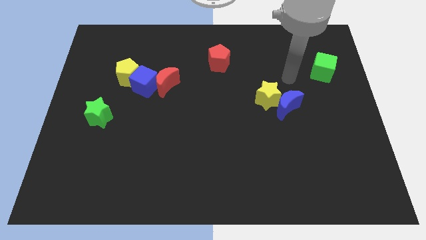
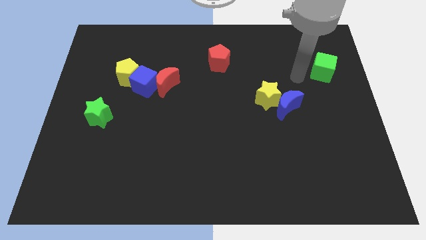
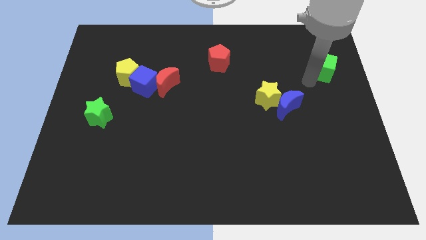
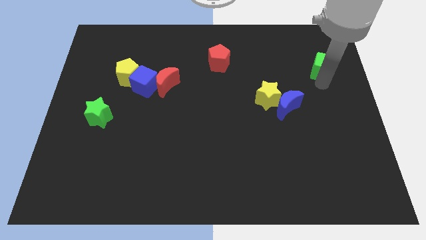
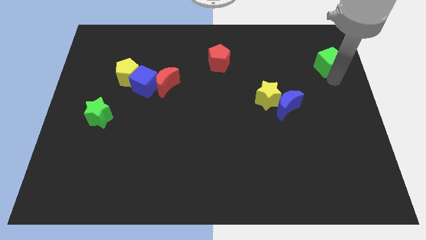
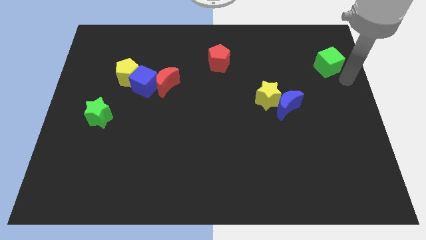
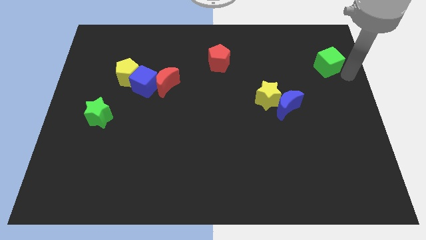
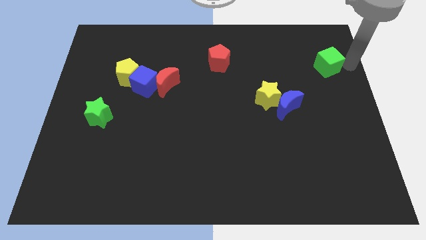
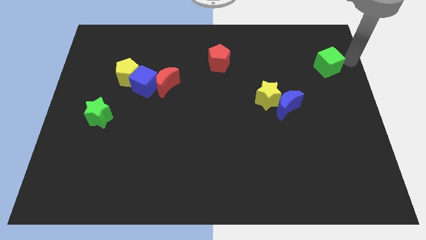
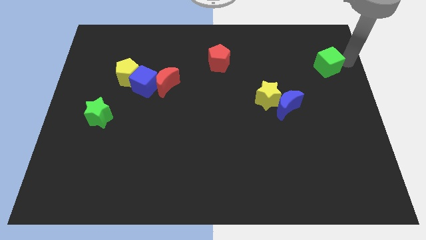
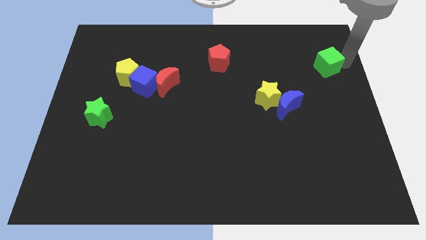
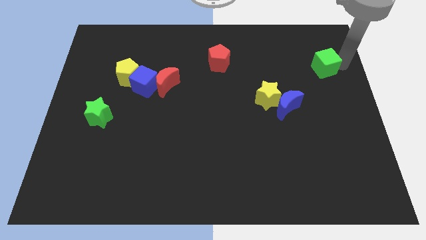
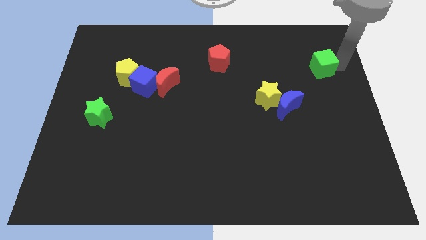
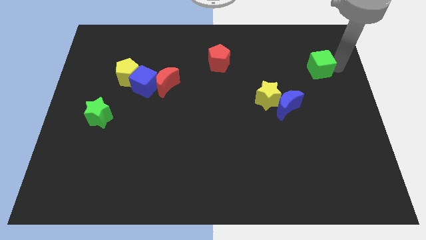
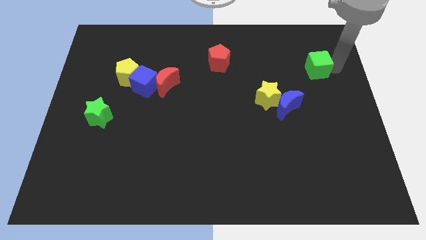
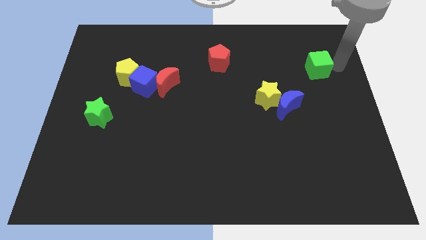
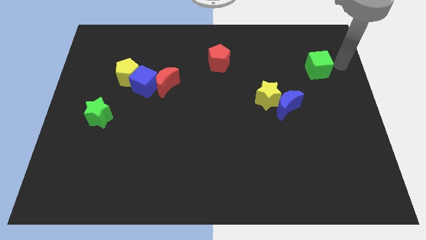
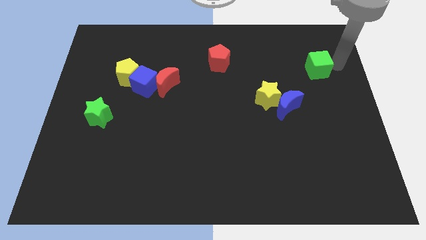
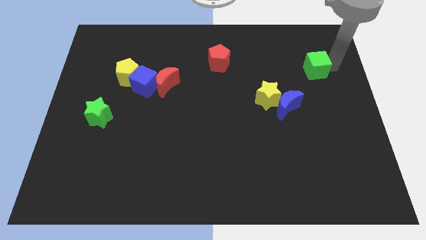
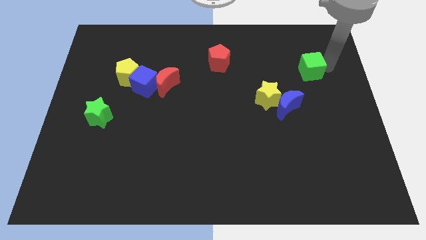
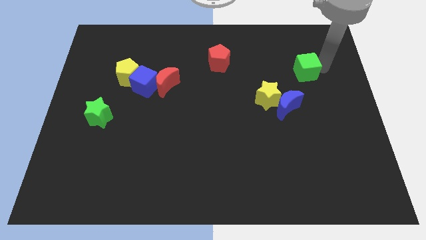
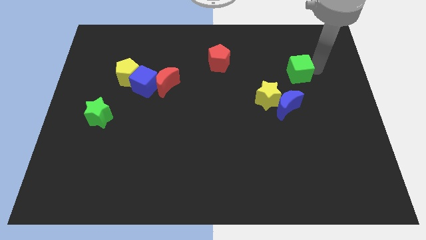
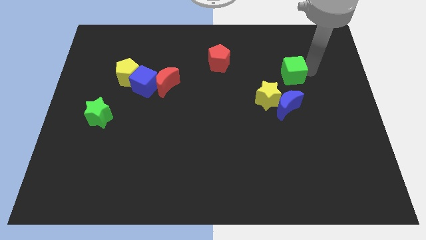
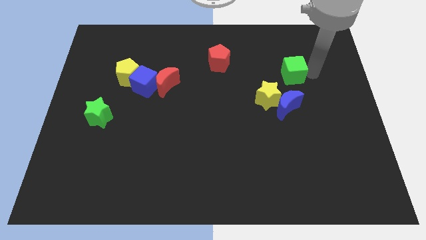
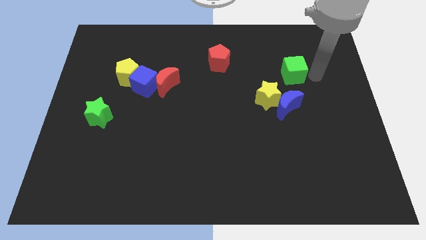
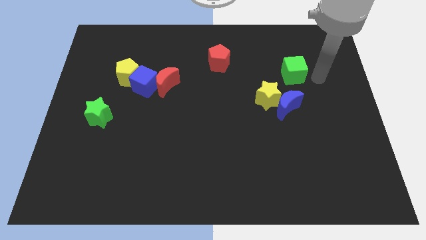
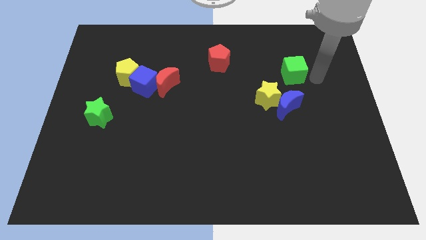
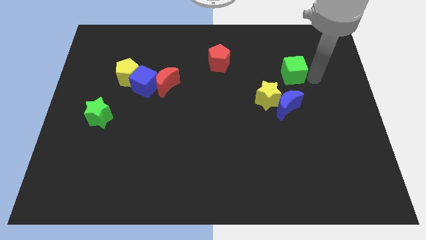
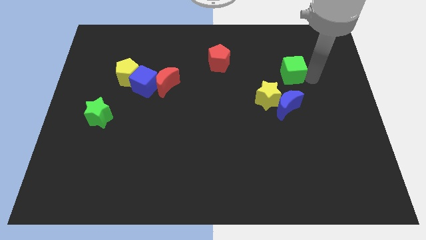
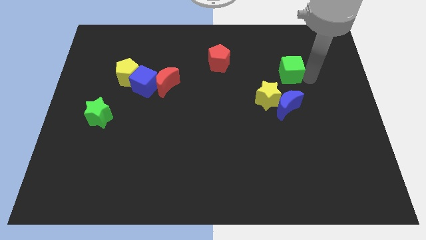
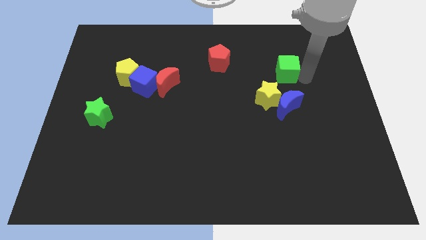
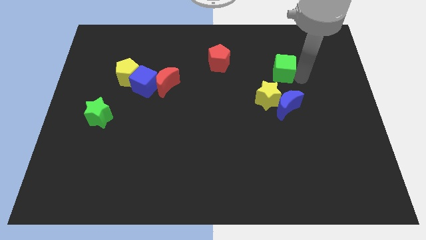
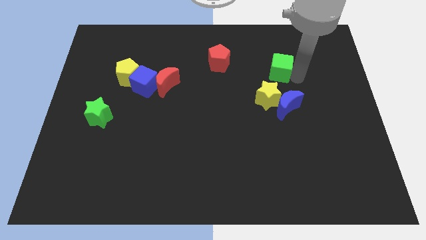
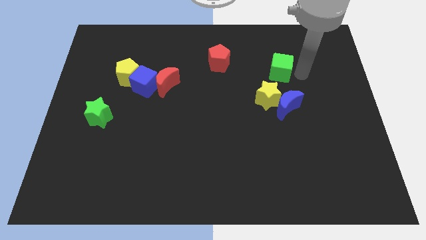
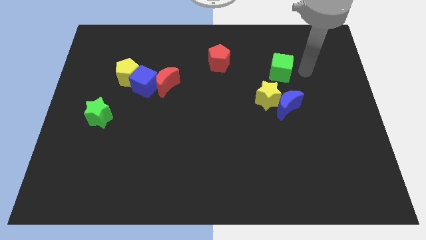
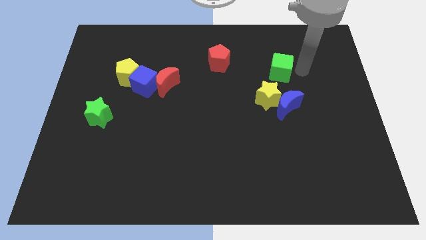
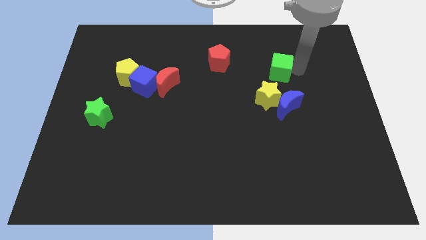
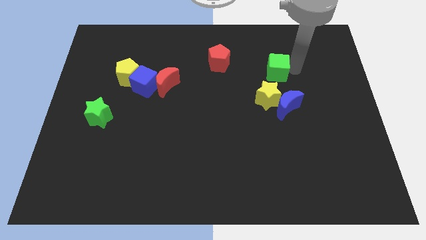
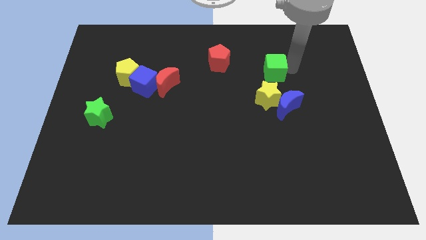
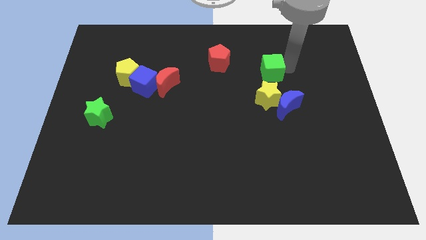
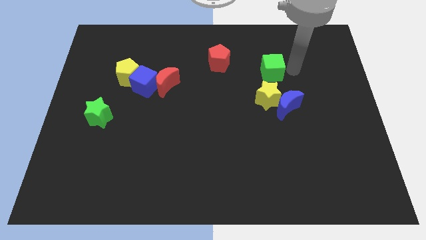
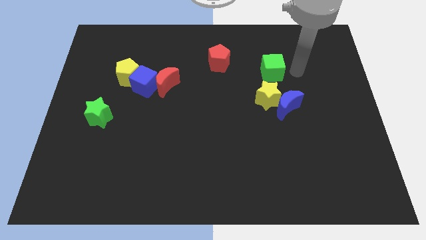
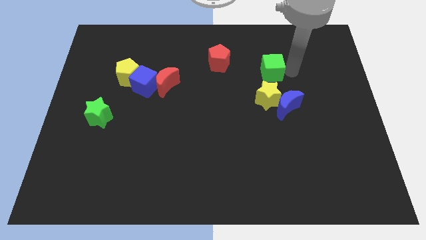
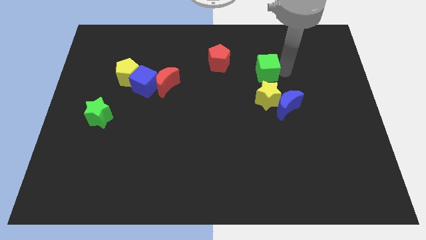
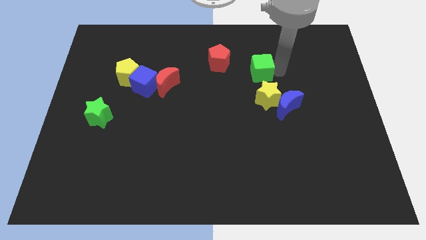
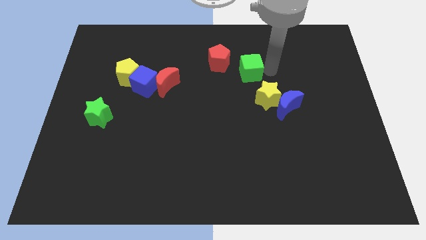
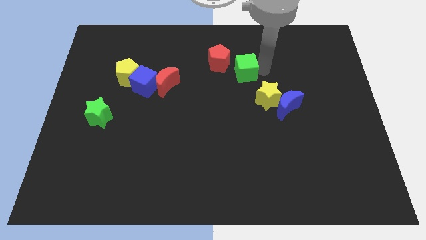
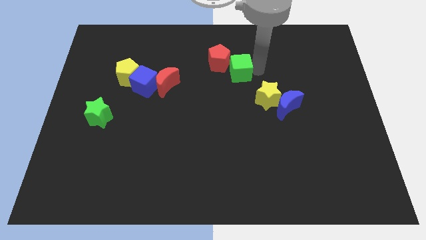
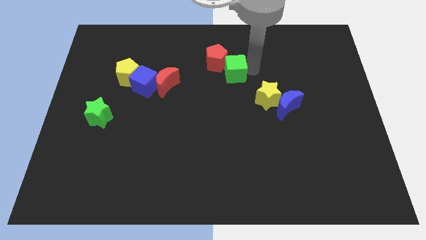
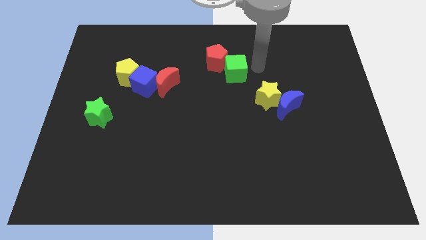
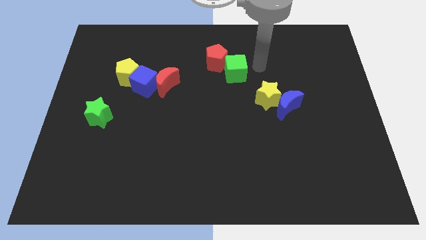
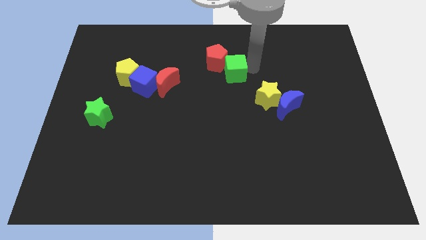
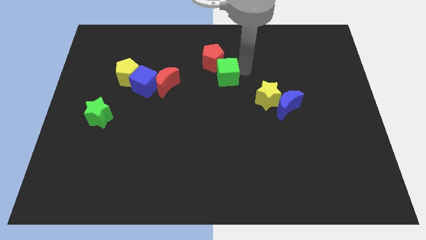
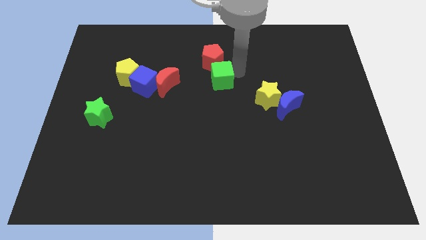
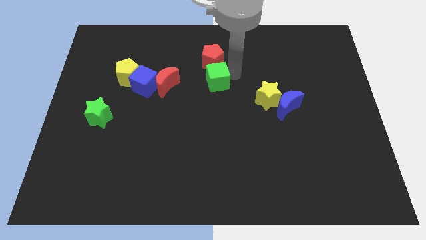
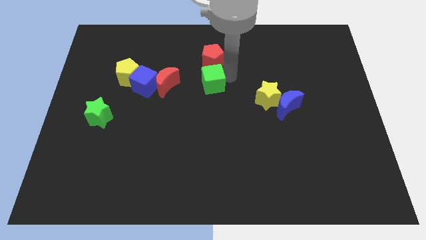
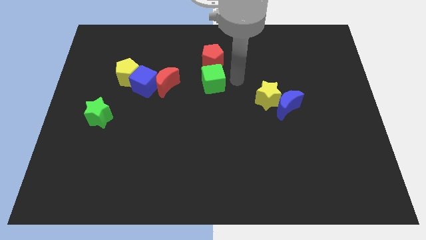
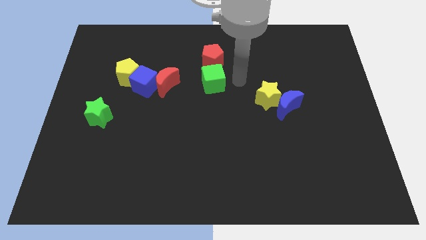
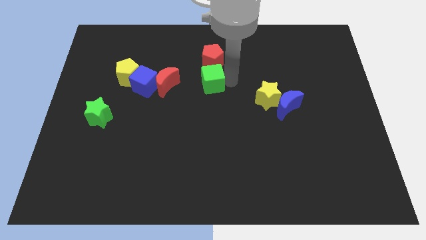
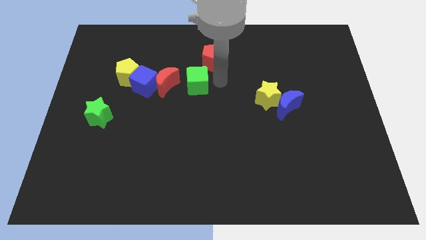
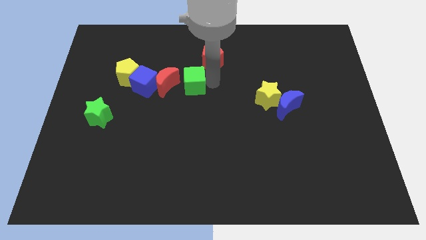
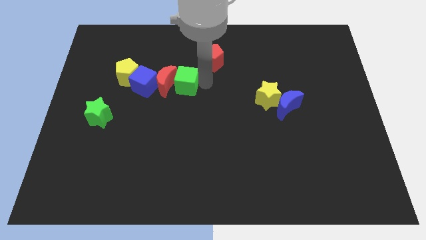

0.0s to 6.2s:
put the green cube close to the red moon

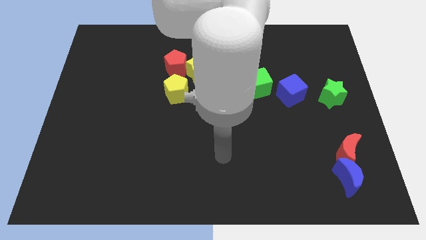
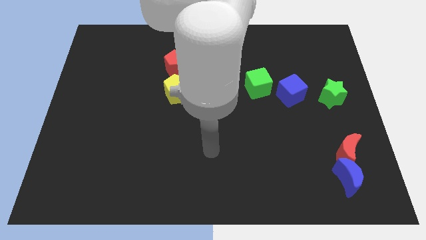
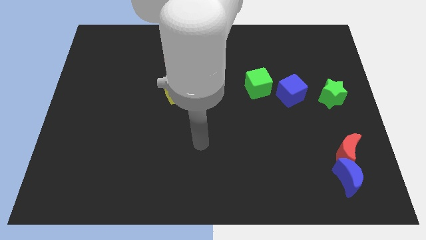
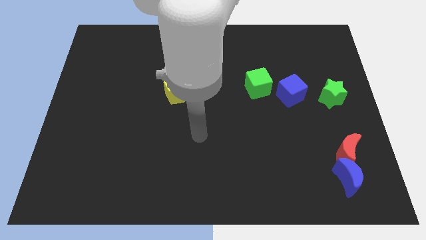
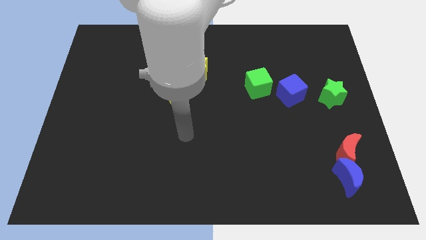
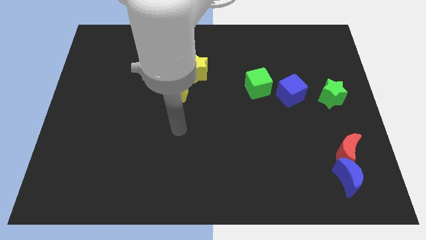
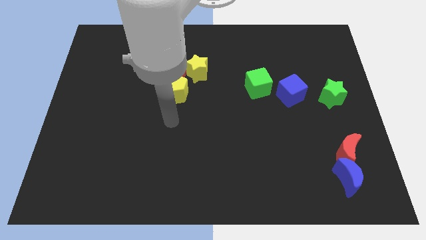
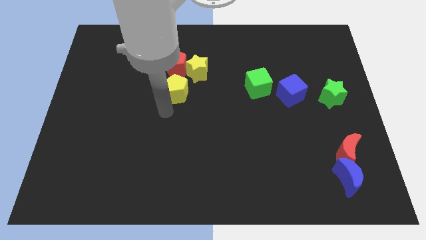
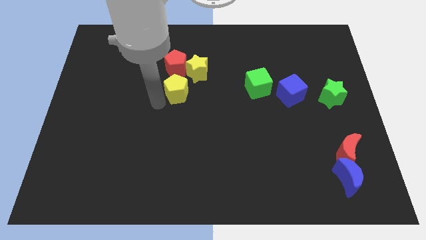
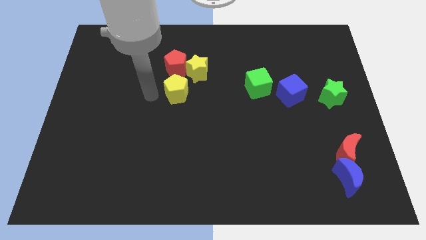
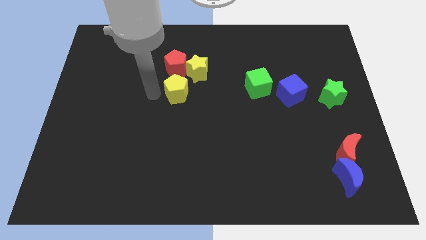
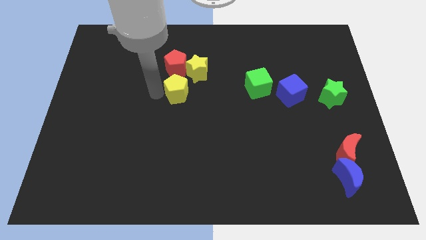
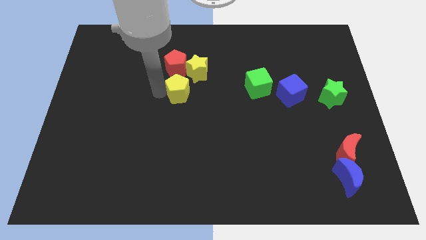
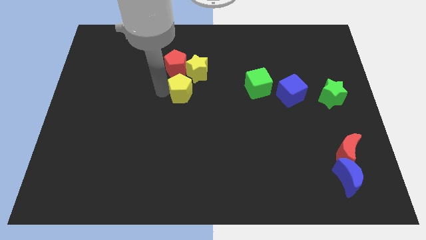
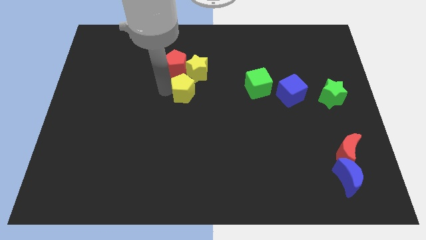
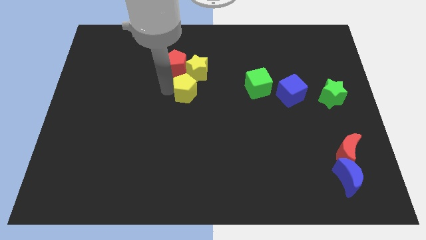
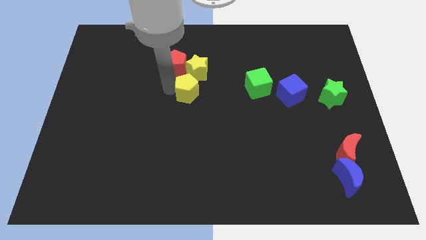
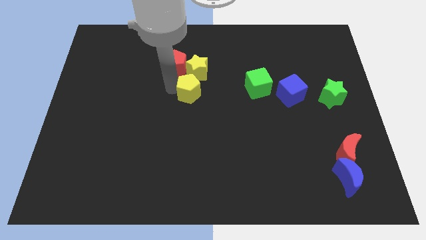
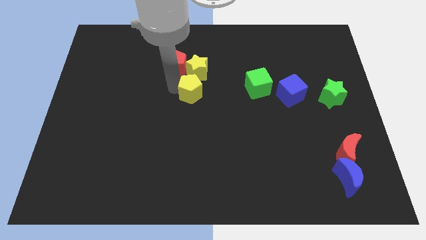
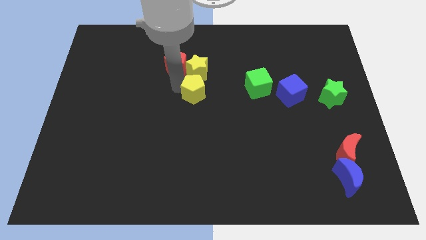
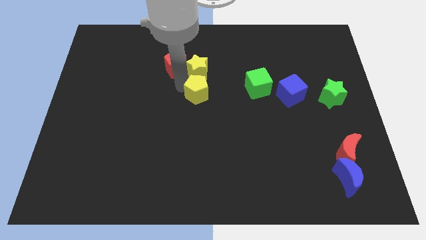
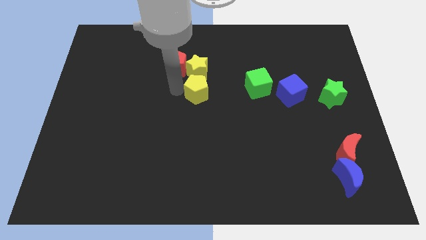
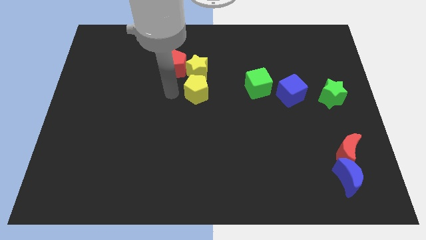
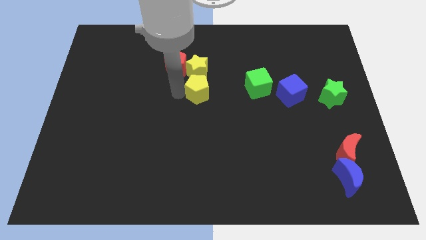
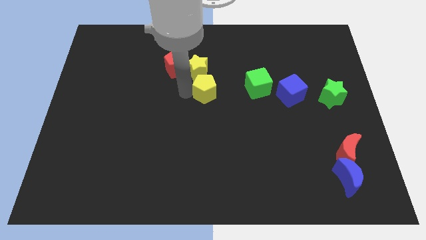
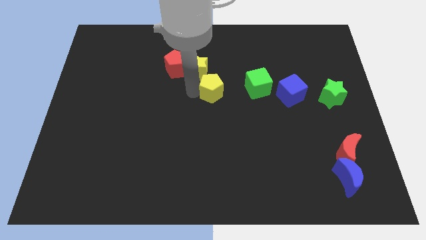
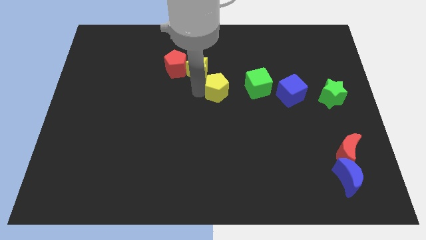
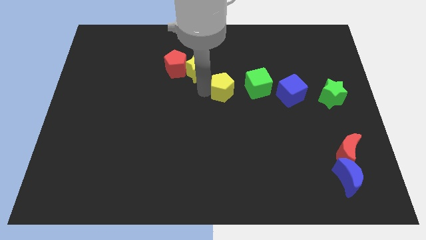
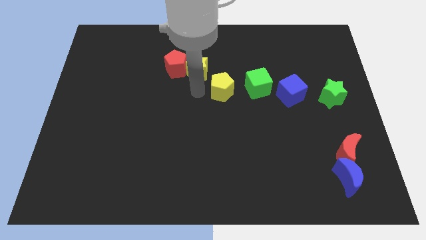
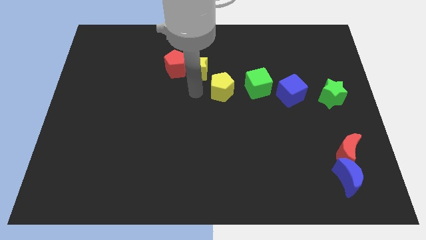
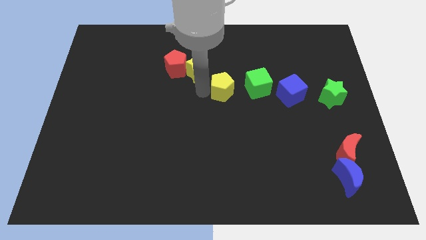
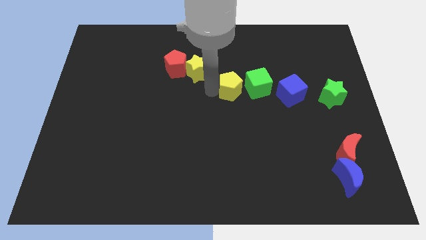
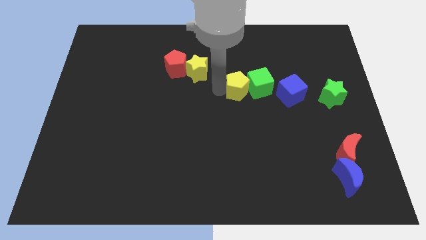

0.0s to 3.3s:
move the yellow pentagon close to the green cube
